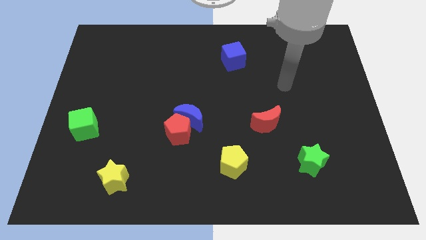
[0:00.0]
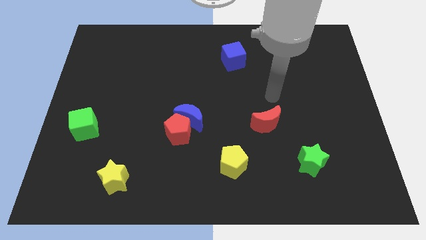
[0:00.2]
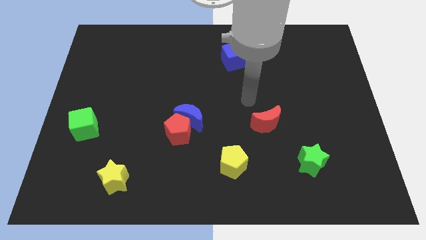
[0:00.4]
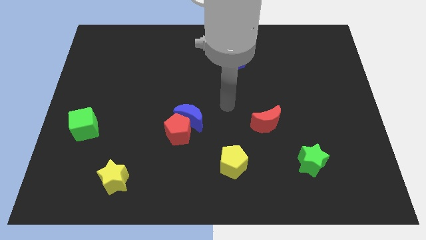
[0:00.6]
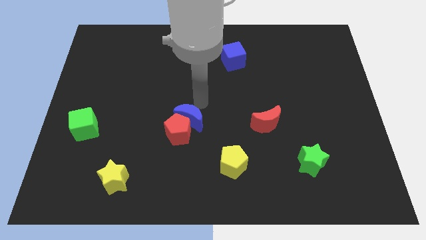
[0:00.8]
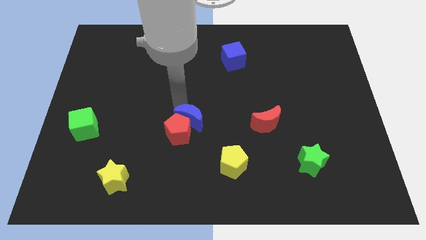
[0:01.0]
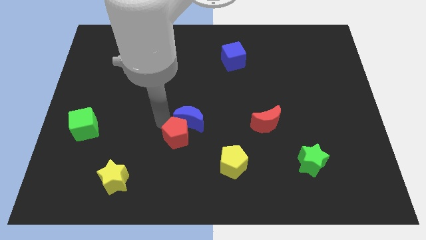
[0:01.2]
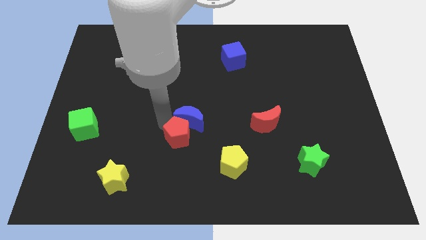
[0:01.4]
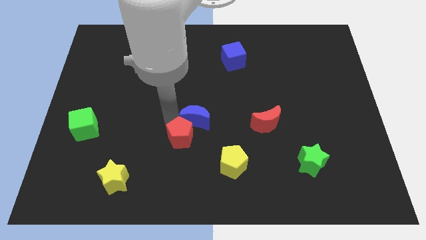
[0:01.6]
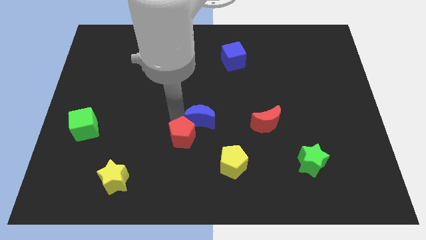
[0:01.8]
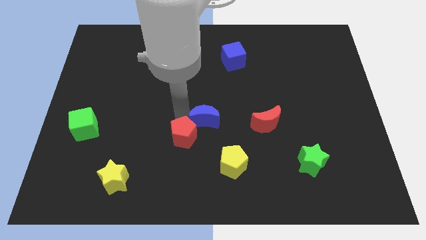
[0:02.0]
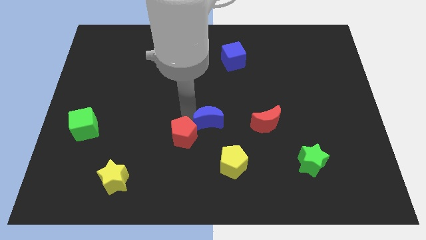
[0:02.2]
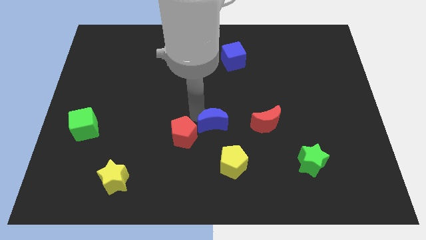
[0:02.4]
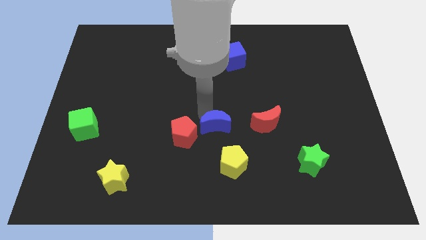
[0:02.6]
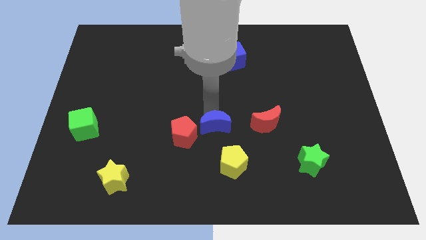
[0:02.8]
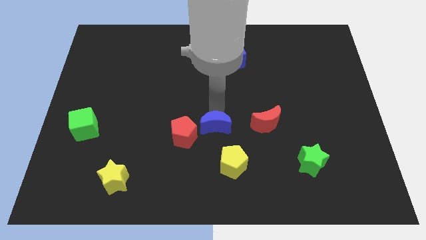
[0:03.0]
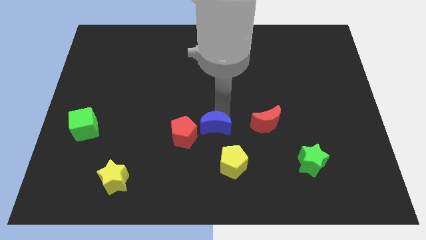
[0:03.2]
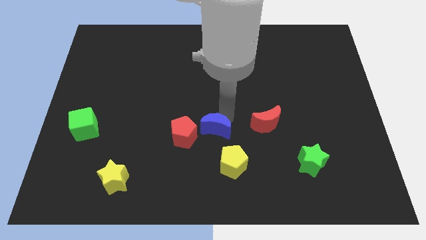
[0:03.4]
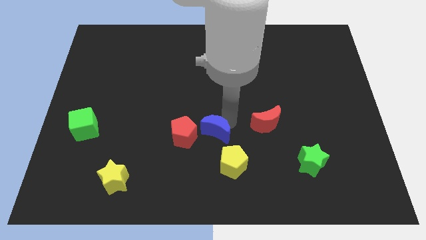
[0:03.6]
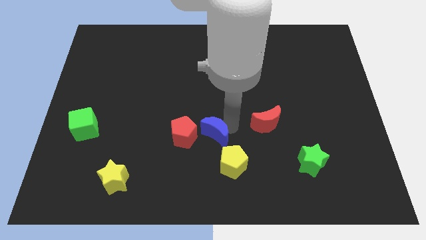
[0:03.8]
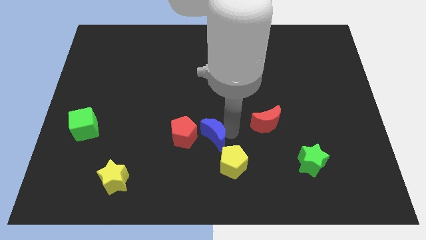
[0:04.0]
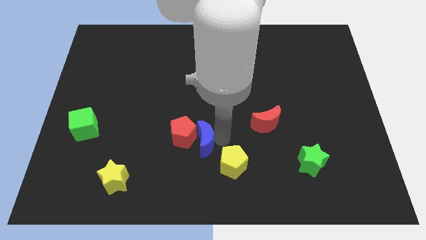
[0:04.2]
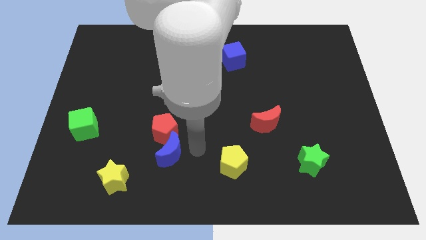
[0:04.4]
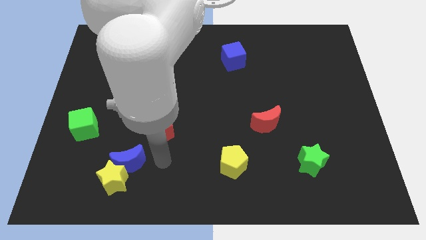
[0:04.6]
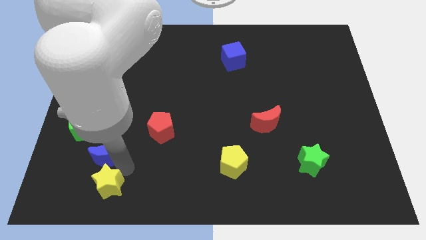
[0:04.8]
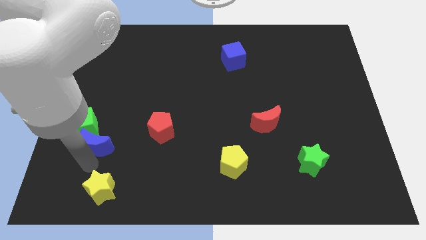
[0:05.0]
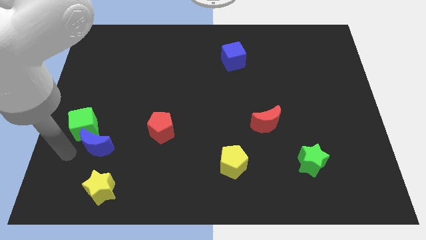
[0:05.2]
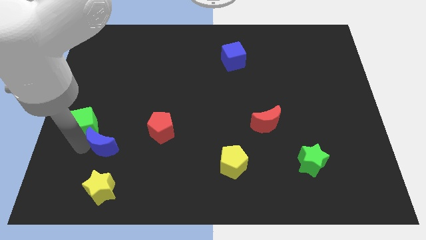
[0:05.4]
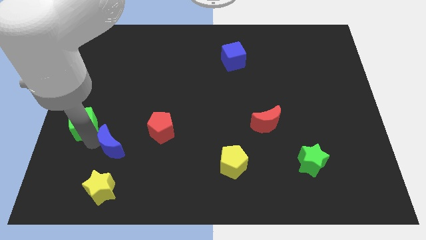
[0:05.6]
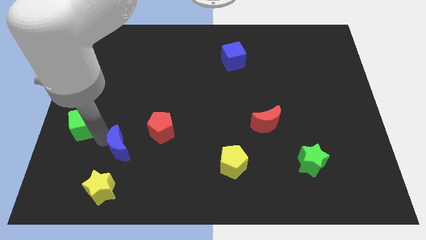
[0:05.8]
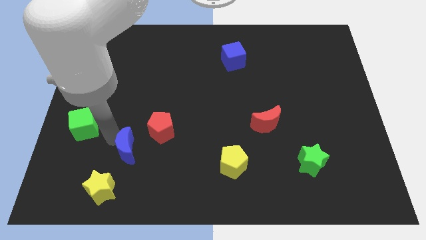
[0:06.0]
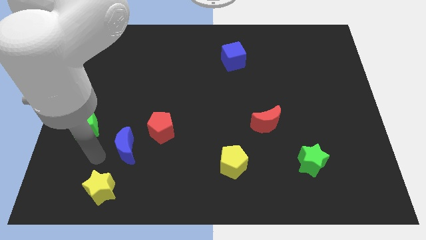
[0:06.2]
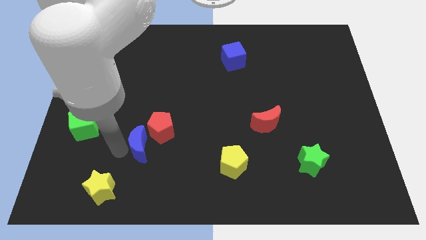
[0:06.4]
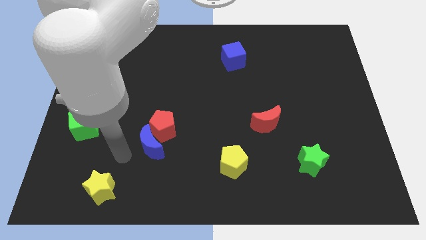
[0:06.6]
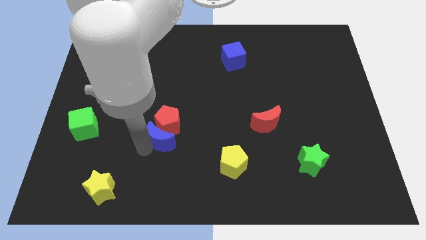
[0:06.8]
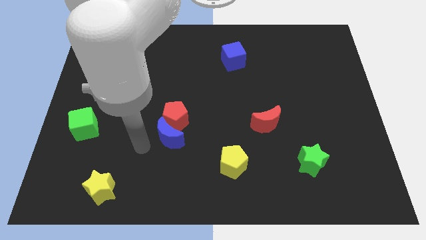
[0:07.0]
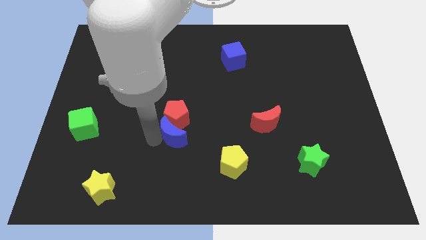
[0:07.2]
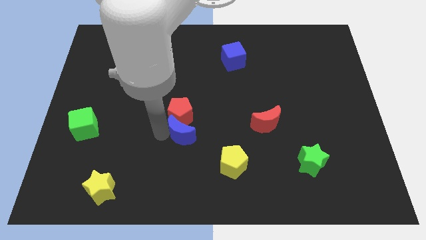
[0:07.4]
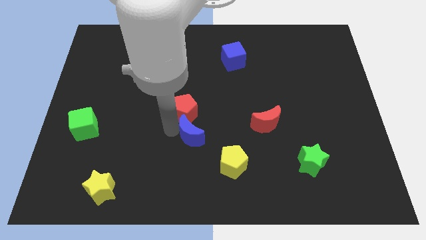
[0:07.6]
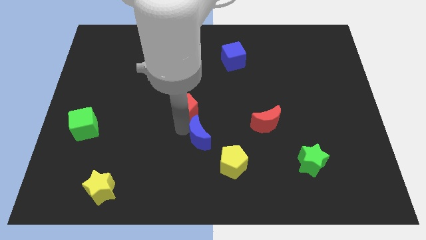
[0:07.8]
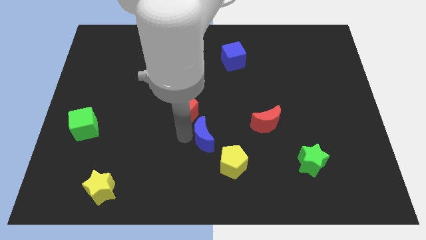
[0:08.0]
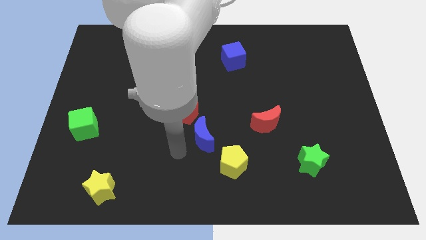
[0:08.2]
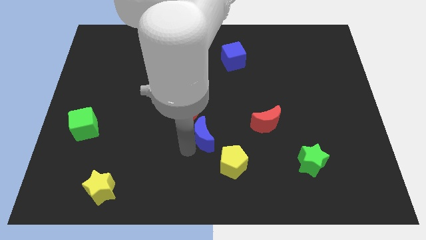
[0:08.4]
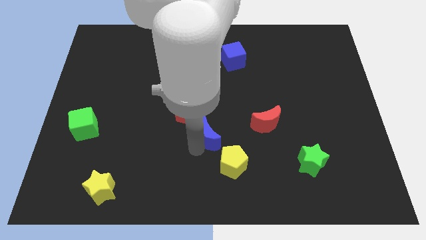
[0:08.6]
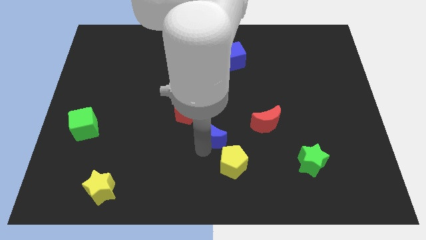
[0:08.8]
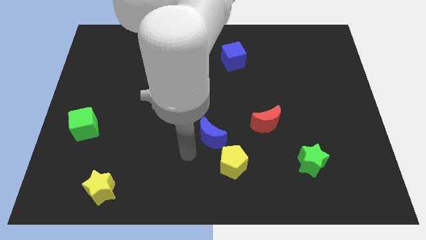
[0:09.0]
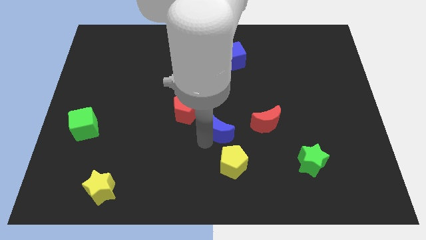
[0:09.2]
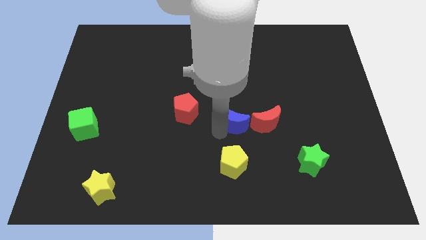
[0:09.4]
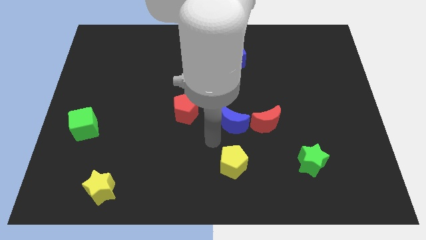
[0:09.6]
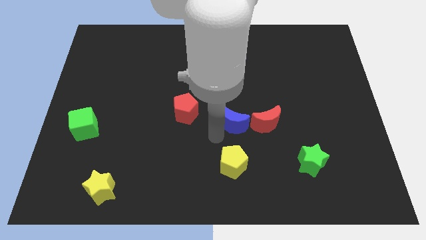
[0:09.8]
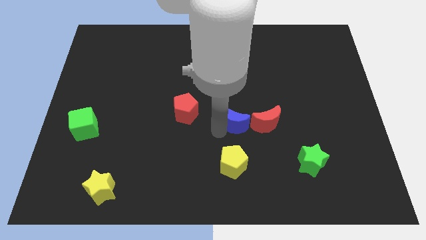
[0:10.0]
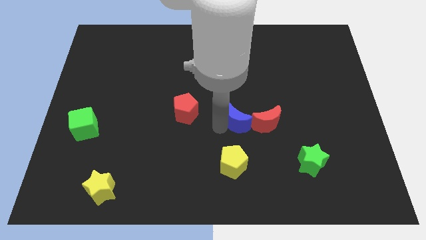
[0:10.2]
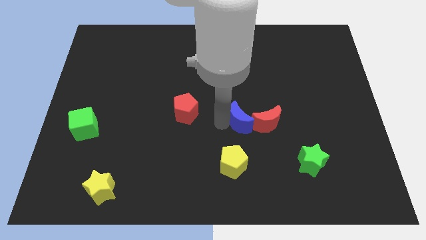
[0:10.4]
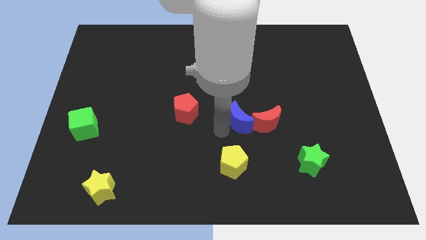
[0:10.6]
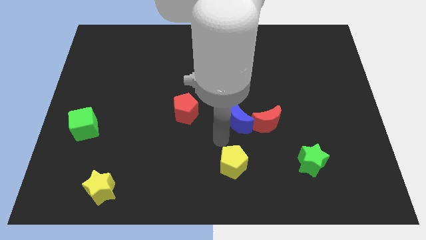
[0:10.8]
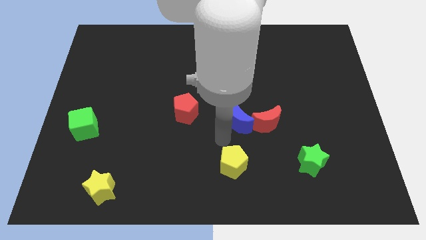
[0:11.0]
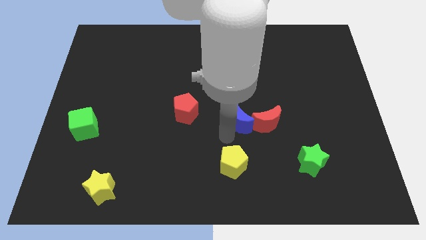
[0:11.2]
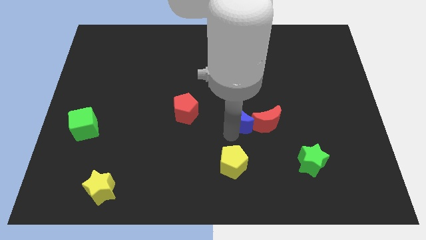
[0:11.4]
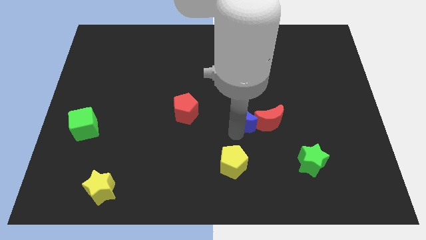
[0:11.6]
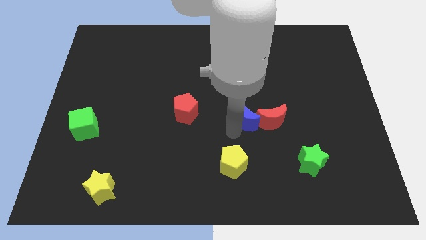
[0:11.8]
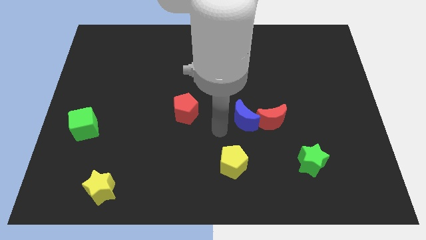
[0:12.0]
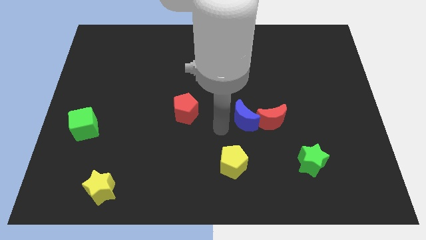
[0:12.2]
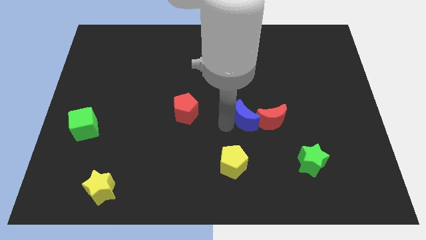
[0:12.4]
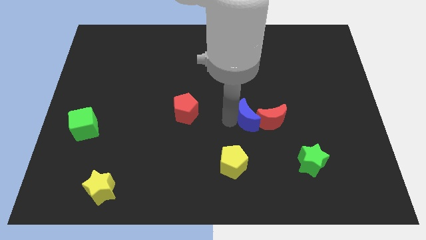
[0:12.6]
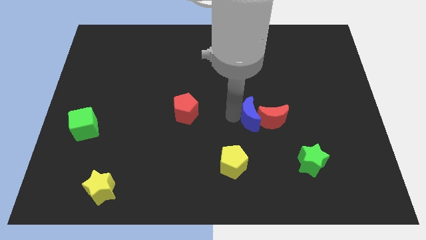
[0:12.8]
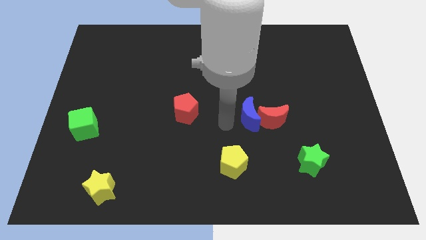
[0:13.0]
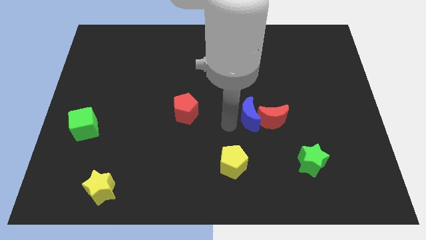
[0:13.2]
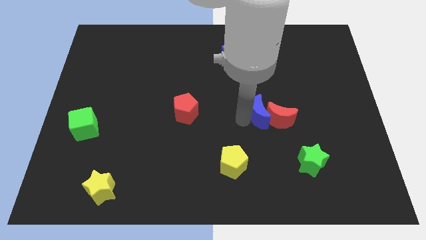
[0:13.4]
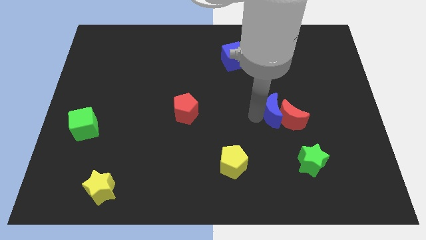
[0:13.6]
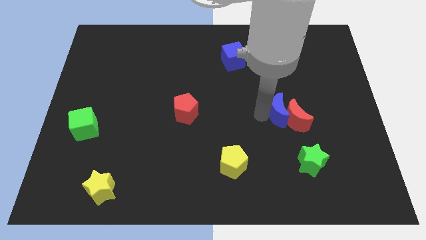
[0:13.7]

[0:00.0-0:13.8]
move the blue moon right

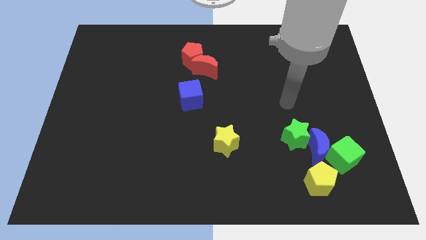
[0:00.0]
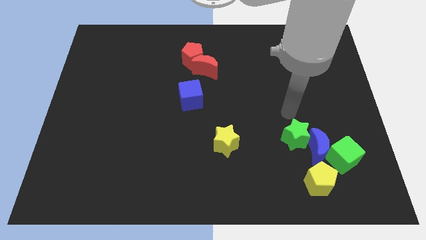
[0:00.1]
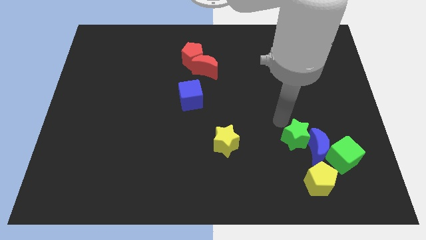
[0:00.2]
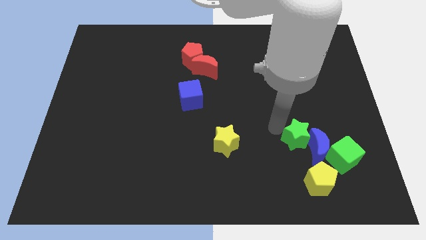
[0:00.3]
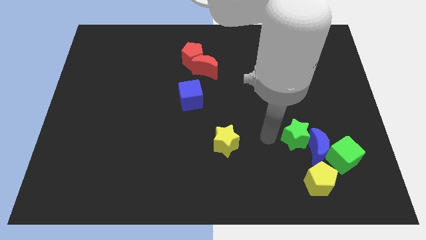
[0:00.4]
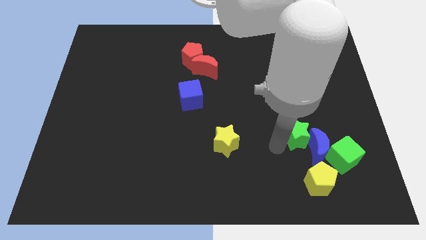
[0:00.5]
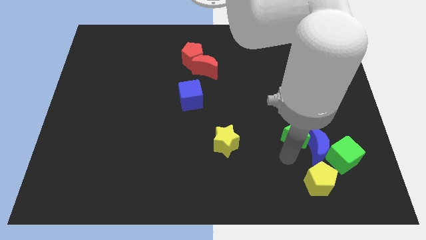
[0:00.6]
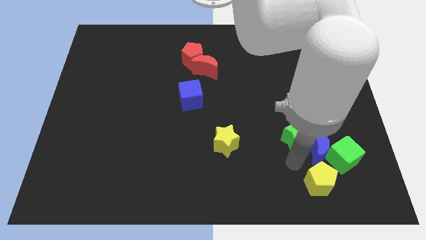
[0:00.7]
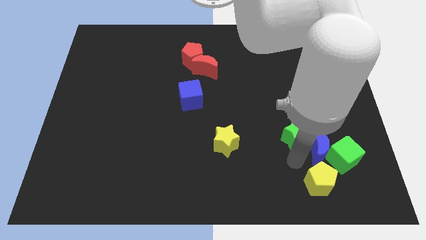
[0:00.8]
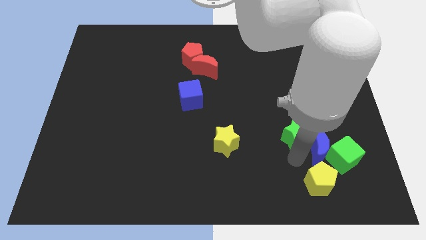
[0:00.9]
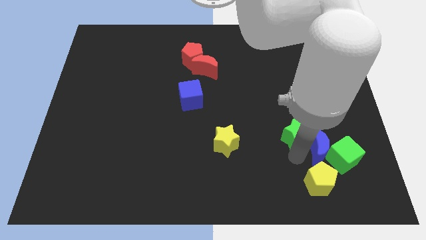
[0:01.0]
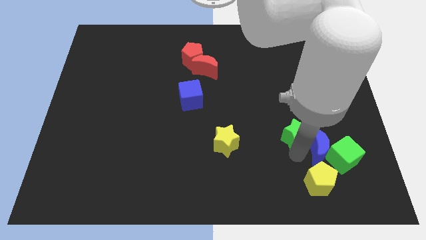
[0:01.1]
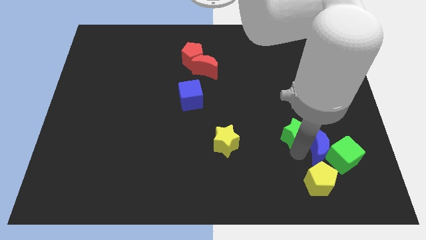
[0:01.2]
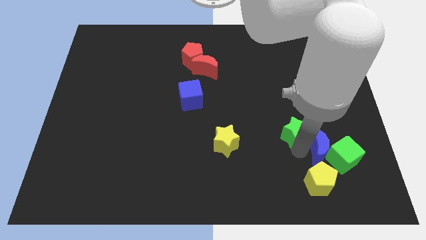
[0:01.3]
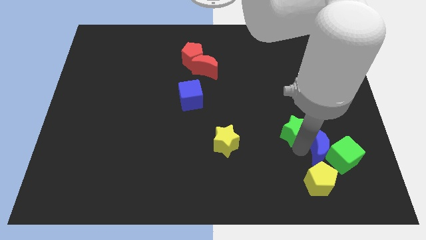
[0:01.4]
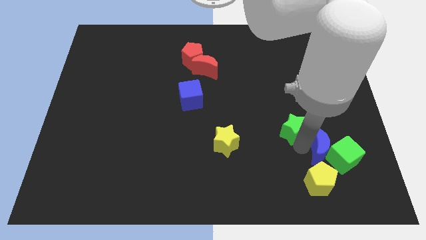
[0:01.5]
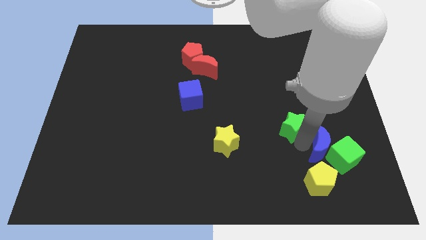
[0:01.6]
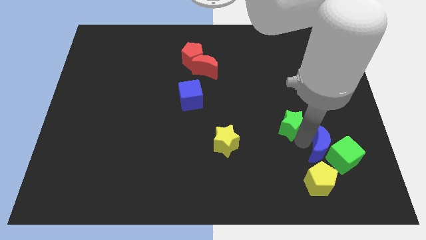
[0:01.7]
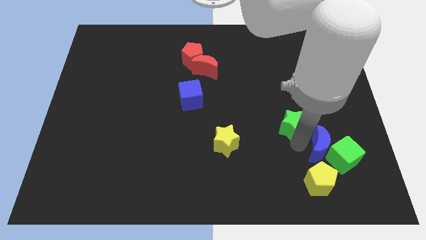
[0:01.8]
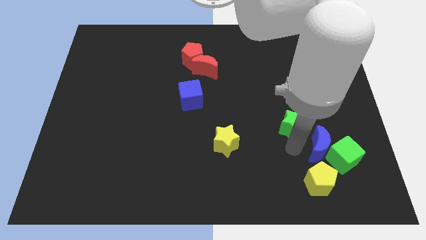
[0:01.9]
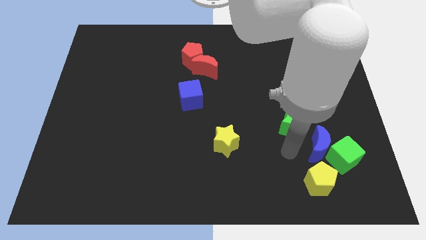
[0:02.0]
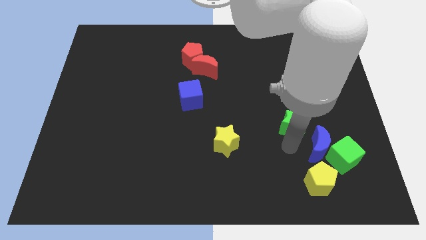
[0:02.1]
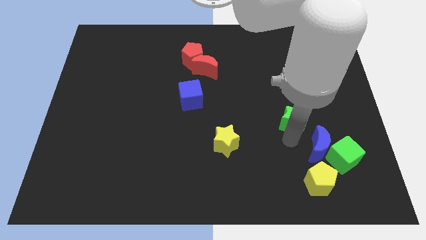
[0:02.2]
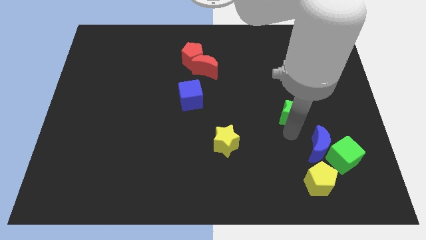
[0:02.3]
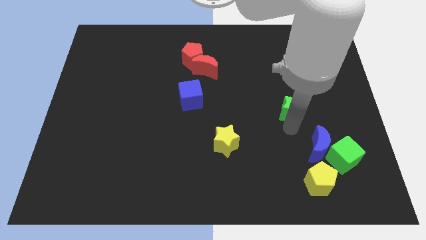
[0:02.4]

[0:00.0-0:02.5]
move the green star upwards a little bit
